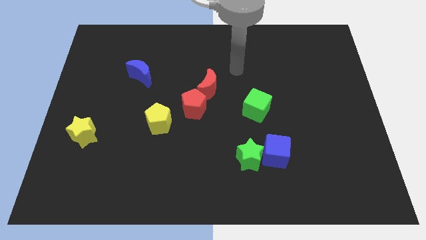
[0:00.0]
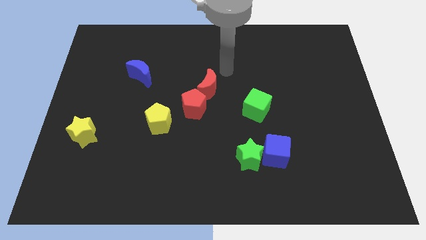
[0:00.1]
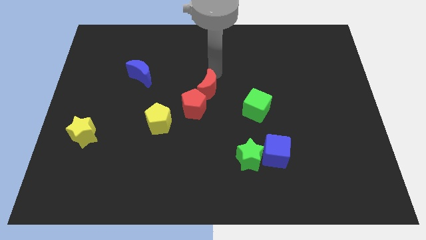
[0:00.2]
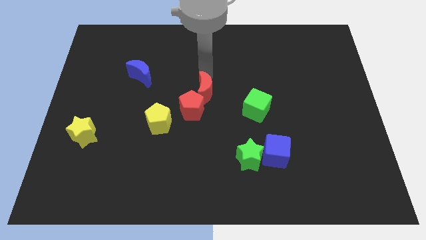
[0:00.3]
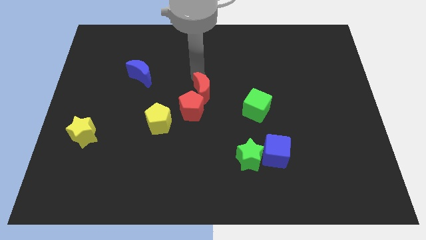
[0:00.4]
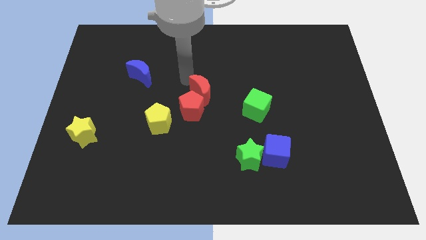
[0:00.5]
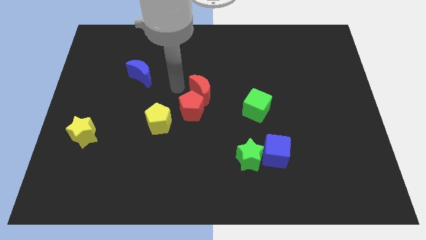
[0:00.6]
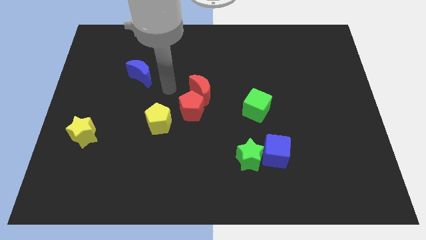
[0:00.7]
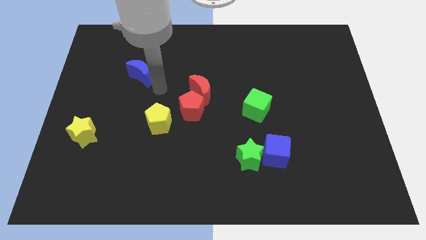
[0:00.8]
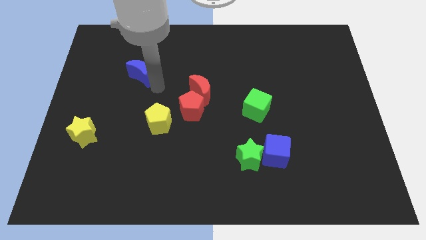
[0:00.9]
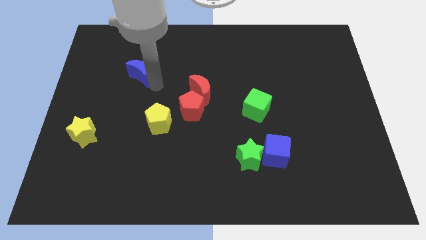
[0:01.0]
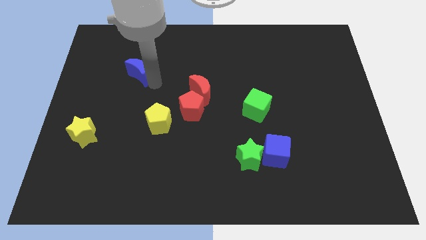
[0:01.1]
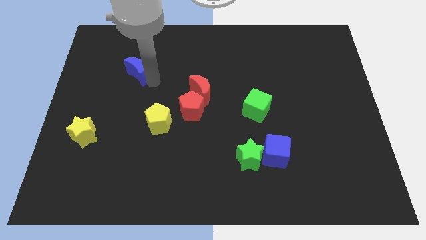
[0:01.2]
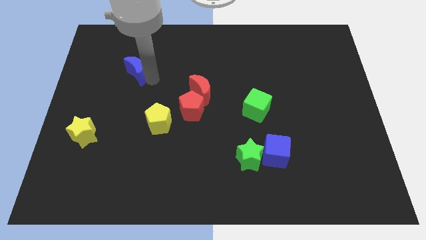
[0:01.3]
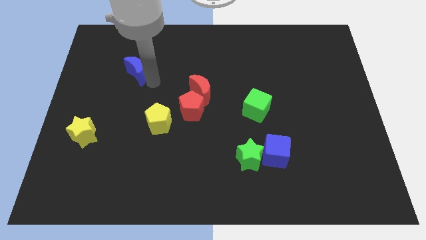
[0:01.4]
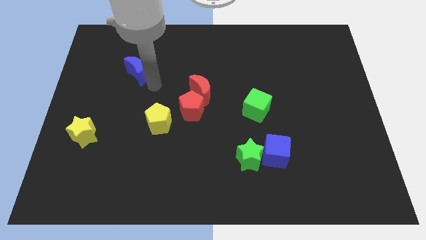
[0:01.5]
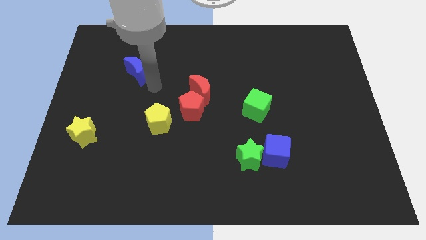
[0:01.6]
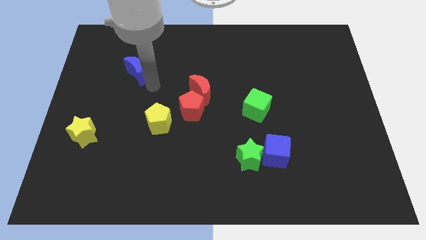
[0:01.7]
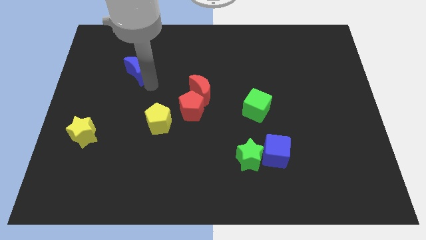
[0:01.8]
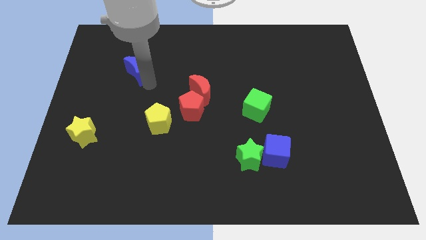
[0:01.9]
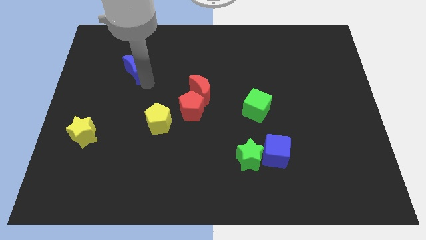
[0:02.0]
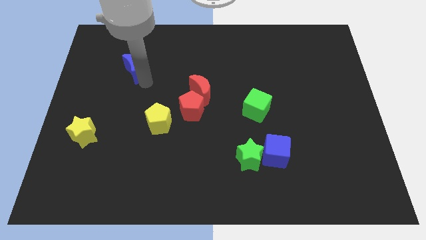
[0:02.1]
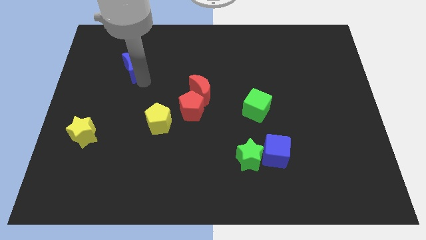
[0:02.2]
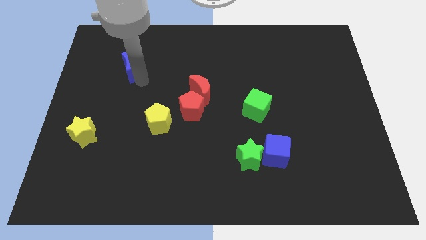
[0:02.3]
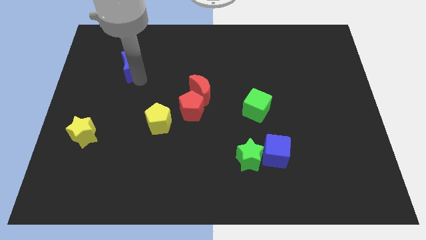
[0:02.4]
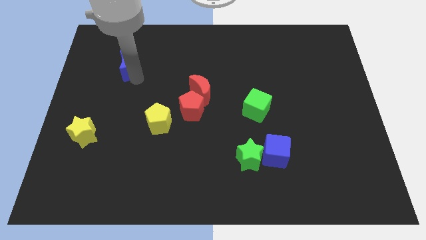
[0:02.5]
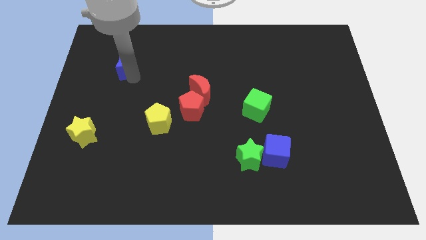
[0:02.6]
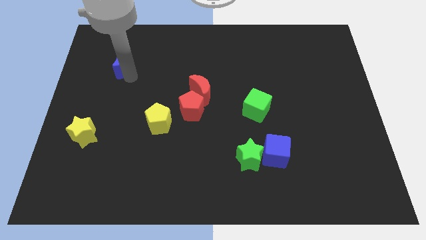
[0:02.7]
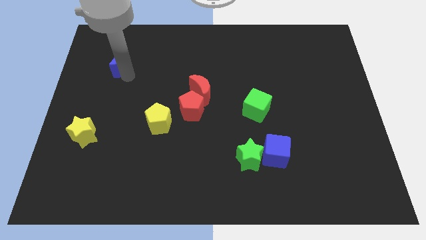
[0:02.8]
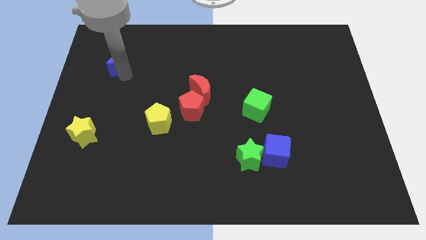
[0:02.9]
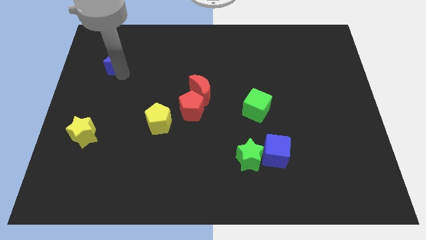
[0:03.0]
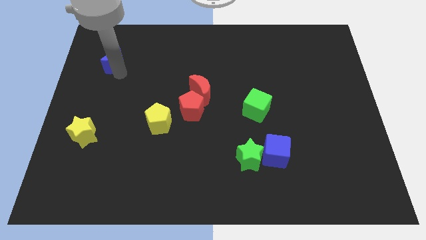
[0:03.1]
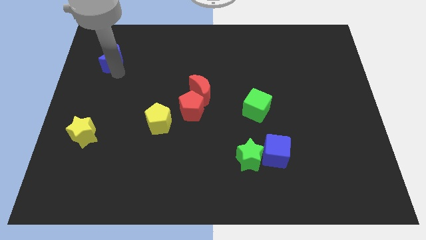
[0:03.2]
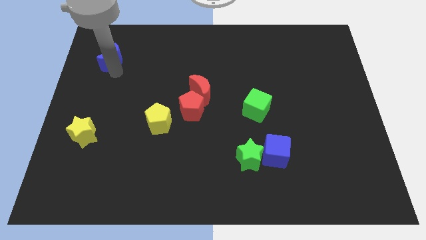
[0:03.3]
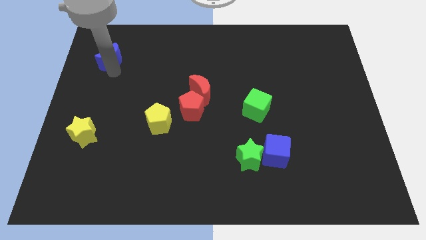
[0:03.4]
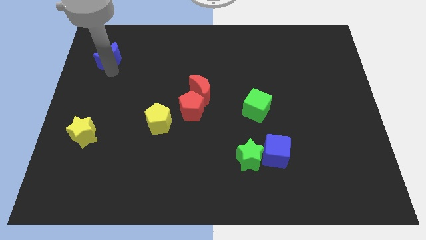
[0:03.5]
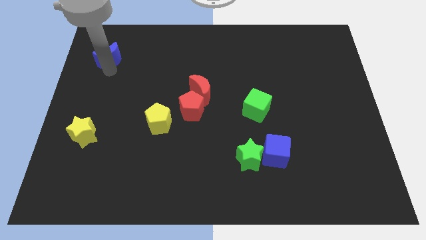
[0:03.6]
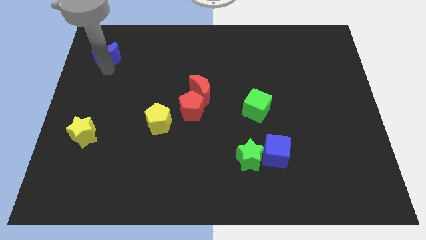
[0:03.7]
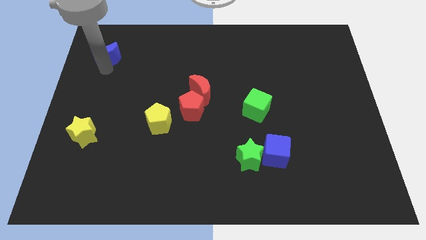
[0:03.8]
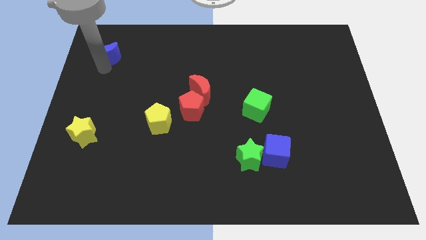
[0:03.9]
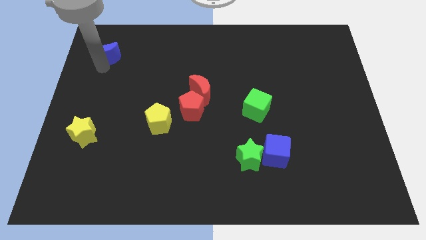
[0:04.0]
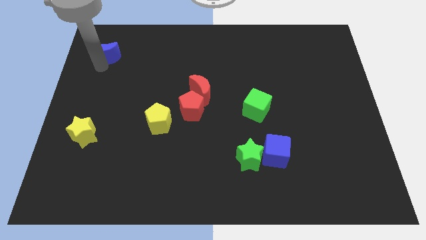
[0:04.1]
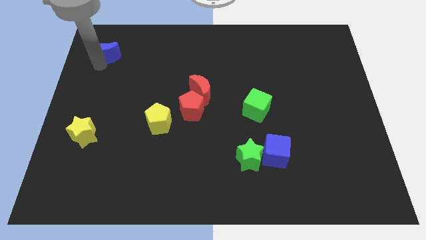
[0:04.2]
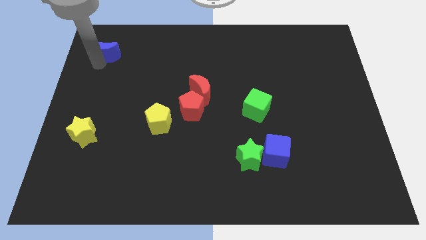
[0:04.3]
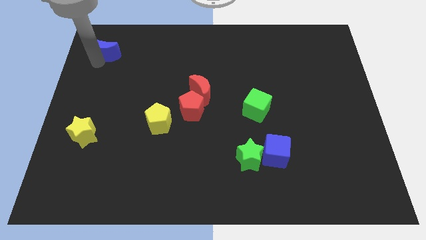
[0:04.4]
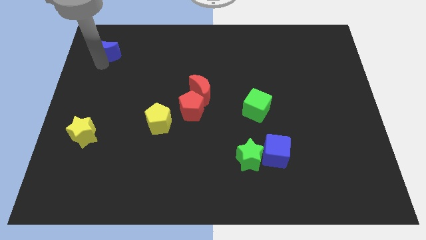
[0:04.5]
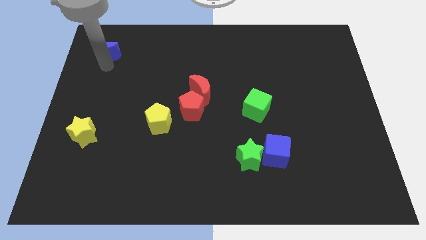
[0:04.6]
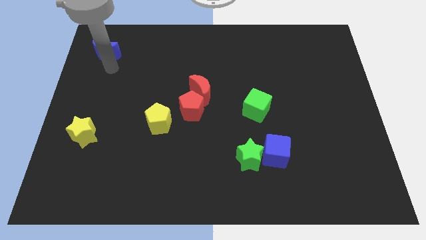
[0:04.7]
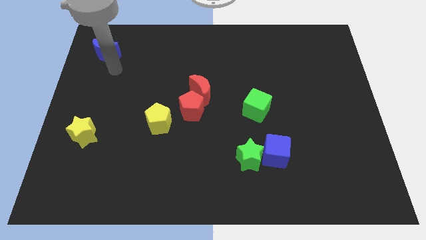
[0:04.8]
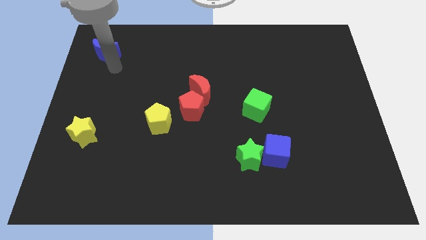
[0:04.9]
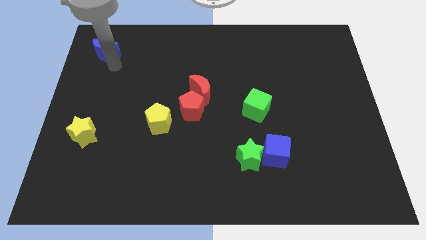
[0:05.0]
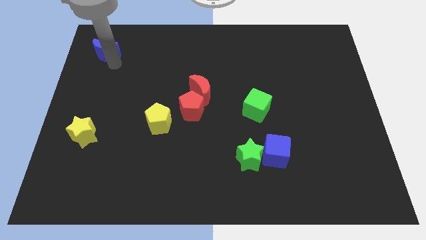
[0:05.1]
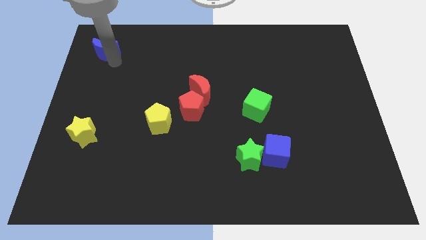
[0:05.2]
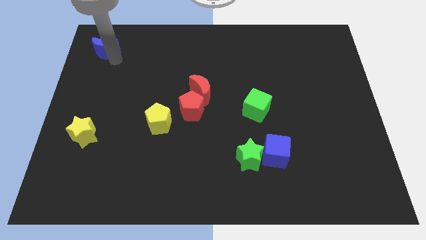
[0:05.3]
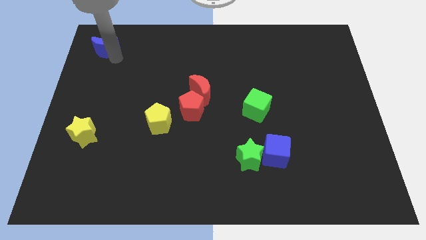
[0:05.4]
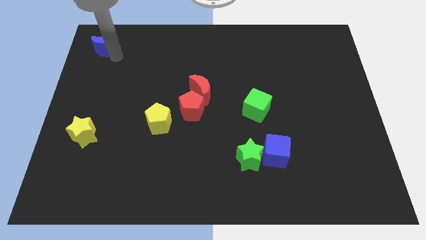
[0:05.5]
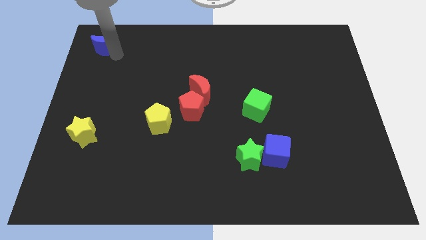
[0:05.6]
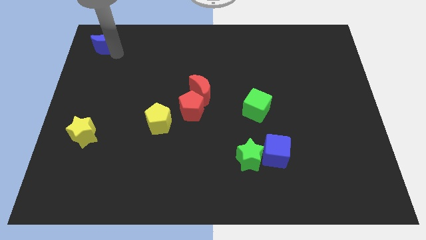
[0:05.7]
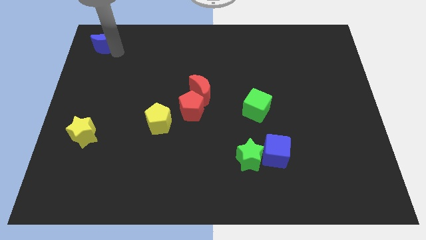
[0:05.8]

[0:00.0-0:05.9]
move the blue moon to the top left corner

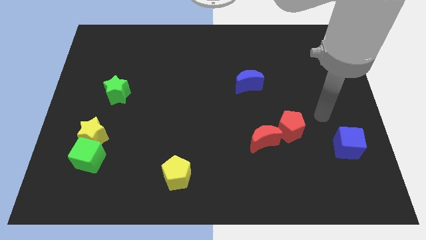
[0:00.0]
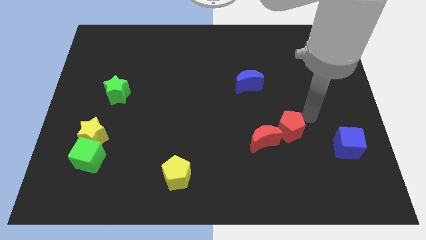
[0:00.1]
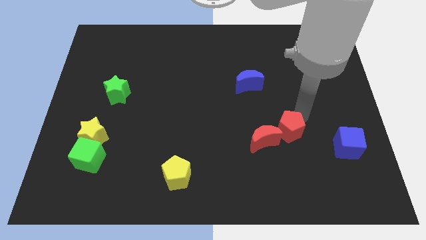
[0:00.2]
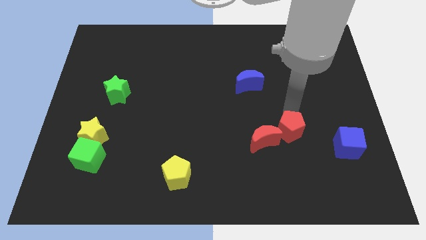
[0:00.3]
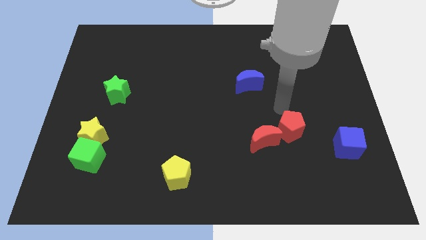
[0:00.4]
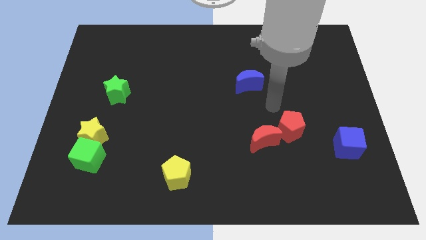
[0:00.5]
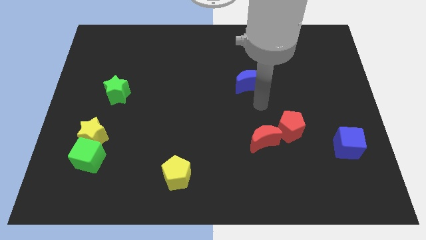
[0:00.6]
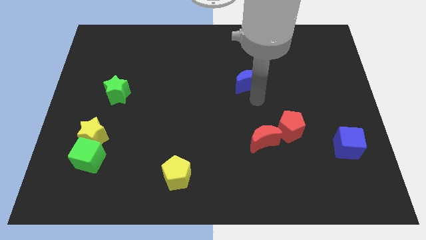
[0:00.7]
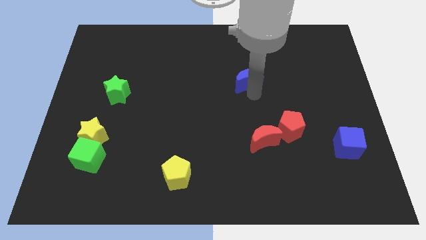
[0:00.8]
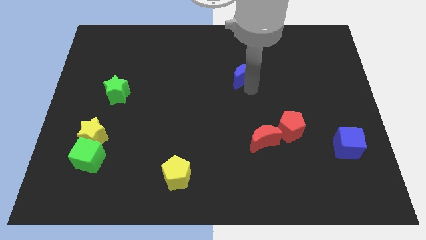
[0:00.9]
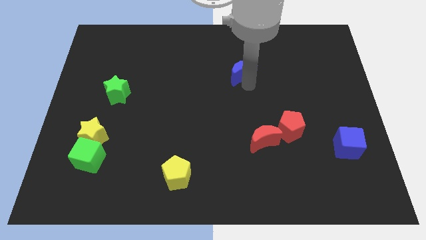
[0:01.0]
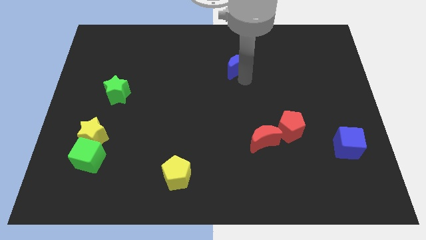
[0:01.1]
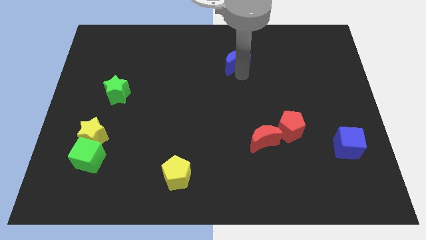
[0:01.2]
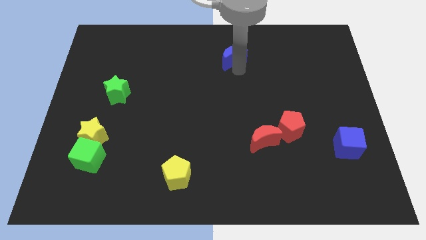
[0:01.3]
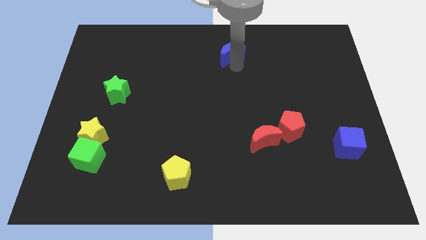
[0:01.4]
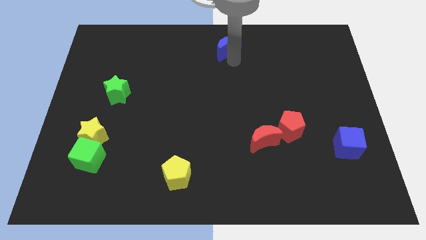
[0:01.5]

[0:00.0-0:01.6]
push the blue moon to the towards your base
